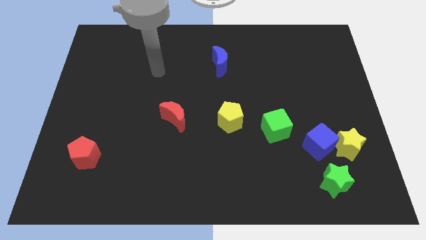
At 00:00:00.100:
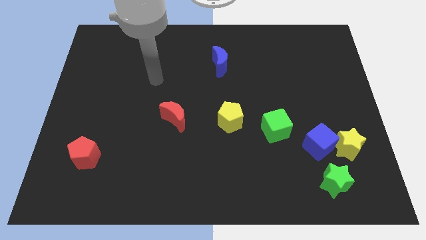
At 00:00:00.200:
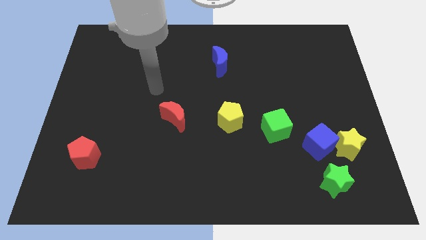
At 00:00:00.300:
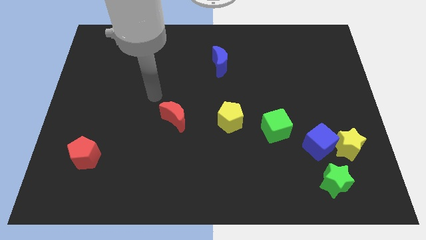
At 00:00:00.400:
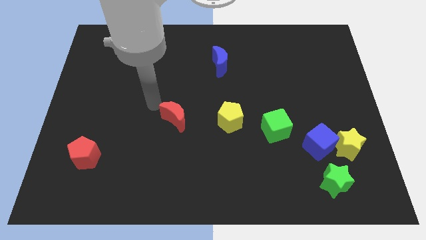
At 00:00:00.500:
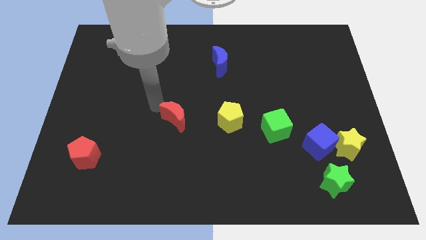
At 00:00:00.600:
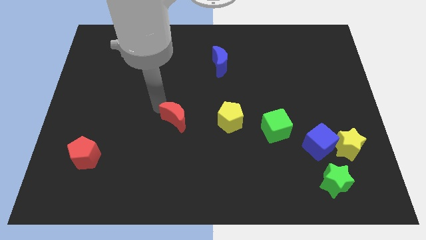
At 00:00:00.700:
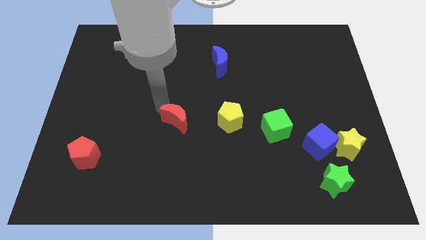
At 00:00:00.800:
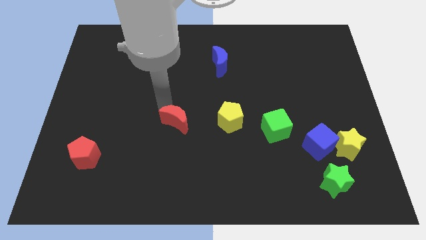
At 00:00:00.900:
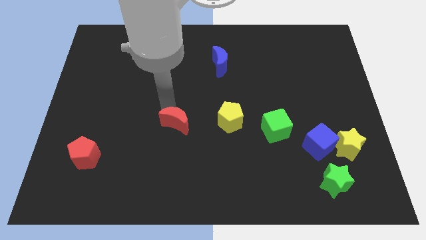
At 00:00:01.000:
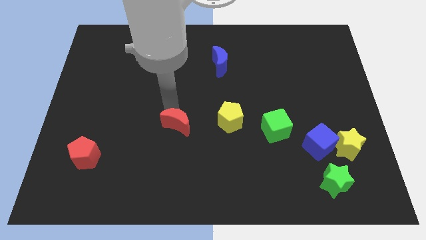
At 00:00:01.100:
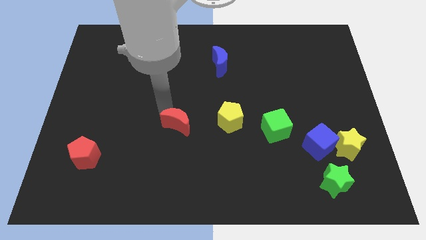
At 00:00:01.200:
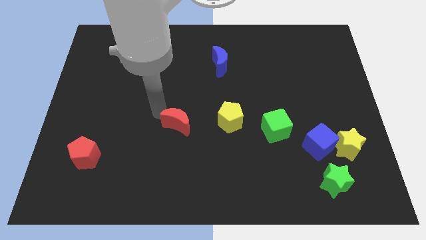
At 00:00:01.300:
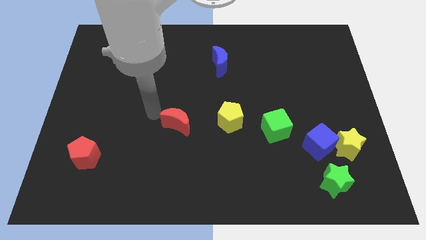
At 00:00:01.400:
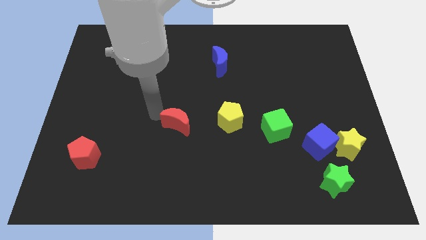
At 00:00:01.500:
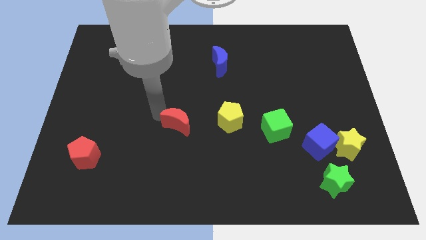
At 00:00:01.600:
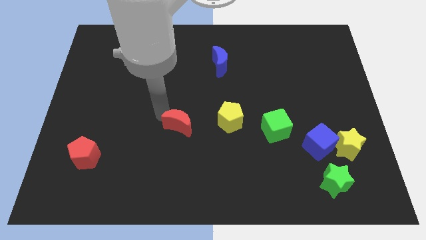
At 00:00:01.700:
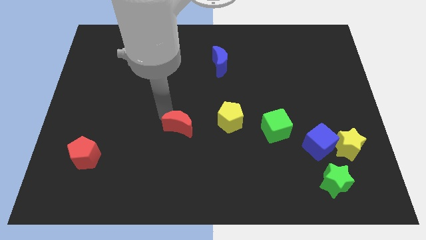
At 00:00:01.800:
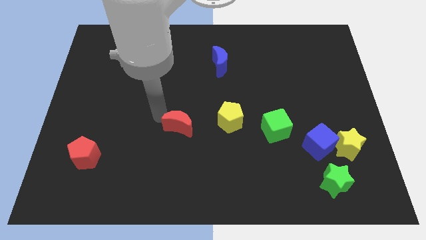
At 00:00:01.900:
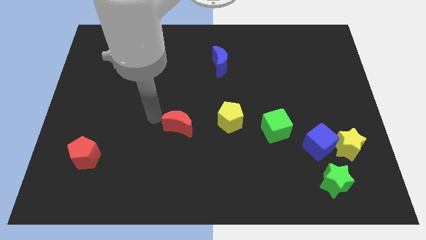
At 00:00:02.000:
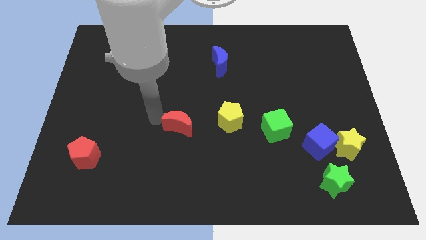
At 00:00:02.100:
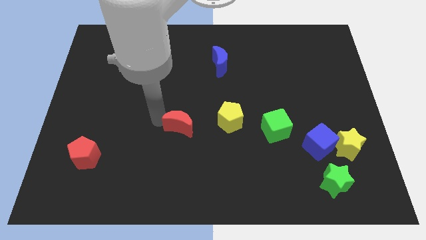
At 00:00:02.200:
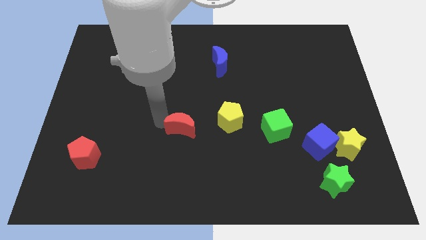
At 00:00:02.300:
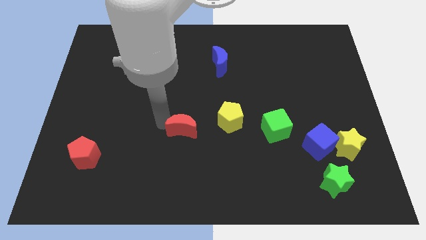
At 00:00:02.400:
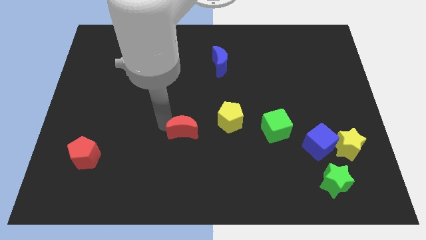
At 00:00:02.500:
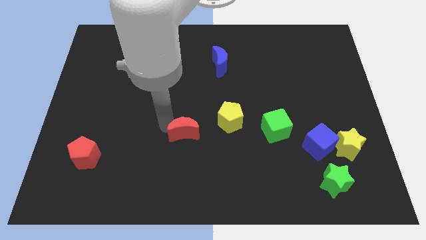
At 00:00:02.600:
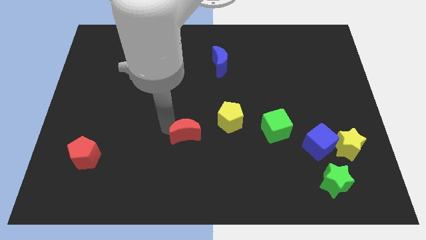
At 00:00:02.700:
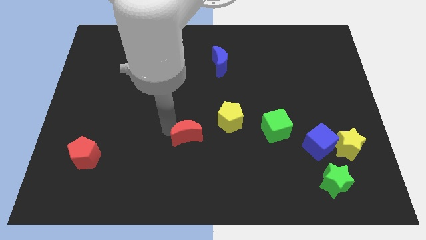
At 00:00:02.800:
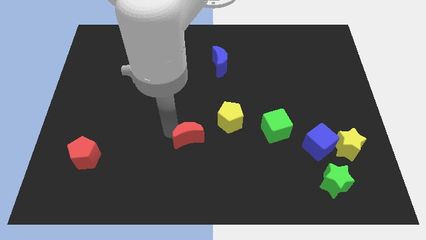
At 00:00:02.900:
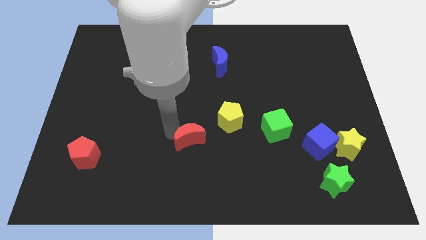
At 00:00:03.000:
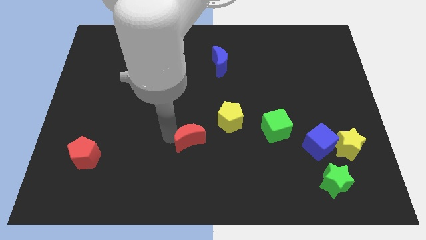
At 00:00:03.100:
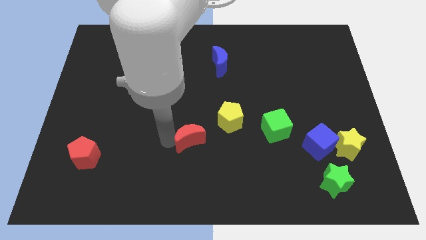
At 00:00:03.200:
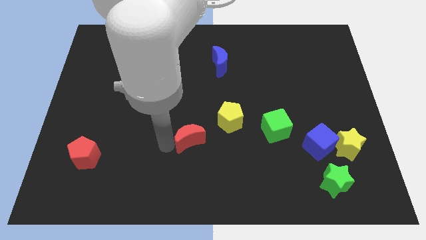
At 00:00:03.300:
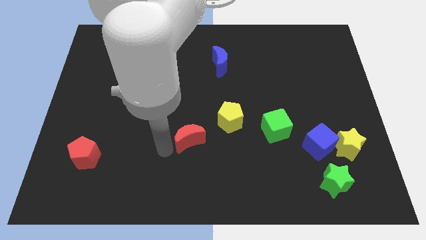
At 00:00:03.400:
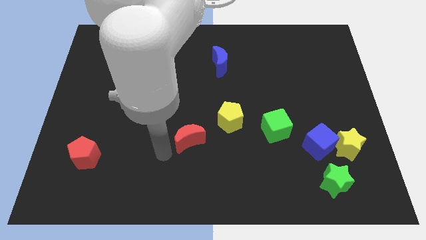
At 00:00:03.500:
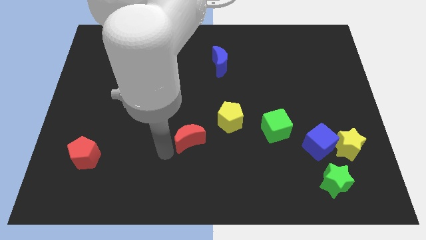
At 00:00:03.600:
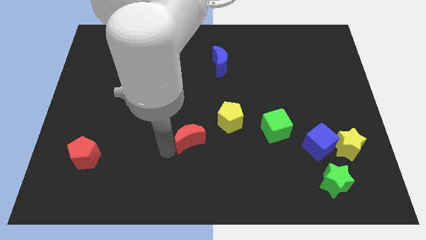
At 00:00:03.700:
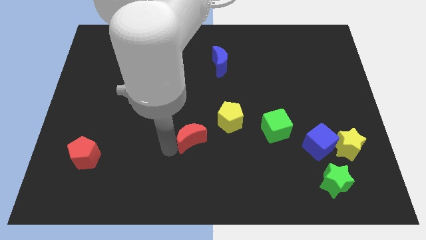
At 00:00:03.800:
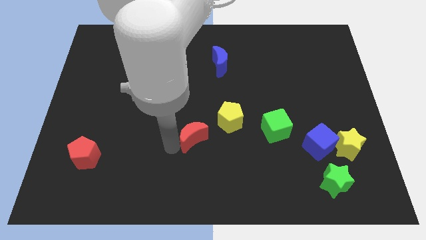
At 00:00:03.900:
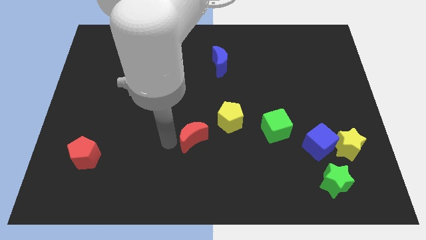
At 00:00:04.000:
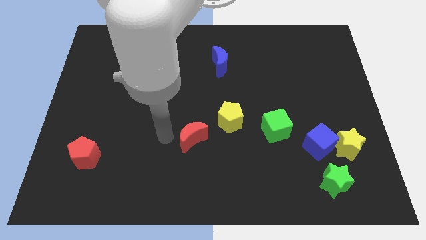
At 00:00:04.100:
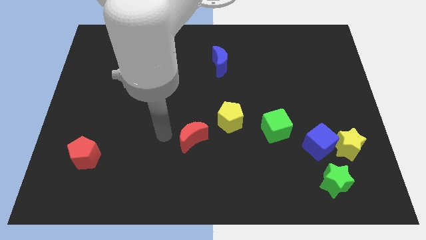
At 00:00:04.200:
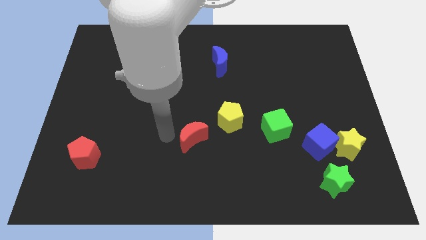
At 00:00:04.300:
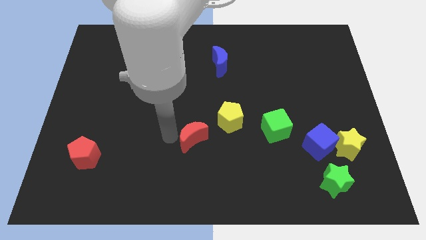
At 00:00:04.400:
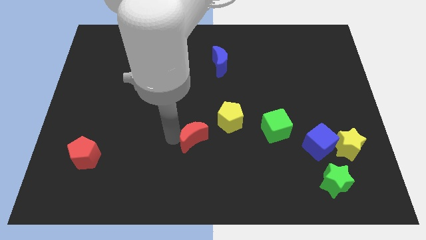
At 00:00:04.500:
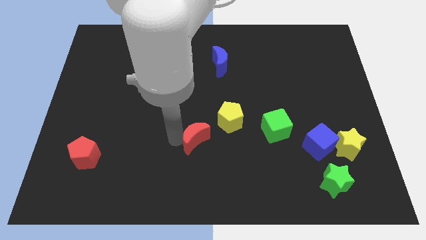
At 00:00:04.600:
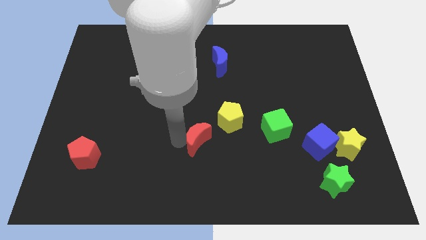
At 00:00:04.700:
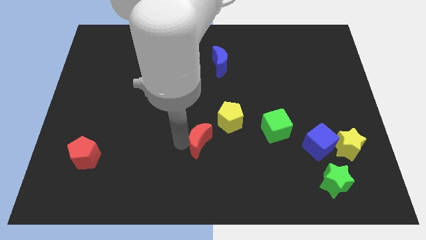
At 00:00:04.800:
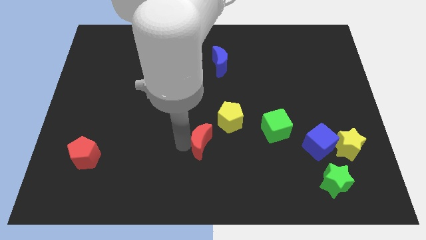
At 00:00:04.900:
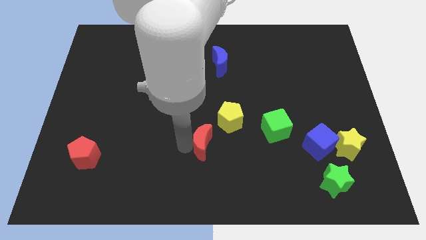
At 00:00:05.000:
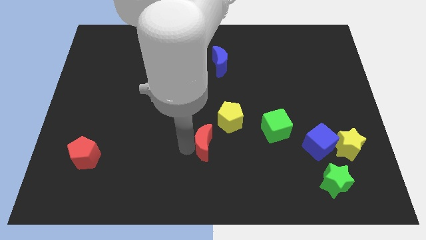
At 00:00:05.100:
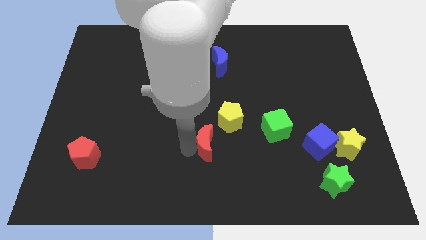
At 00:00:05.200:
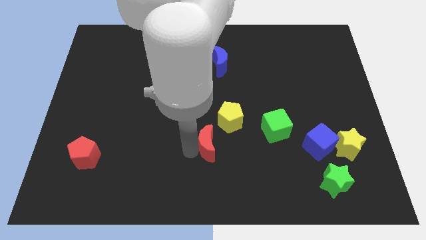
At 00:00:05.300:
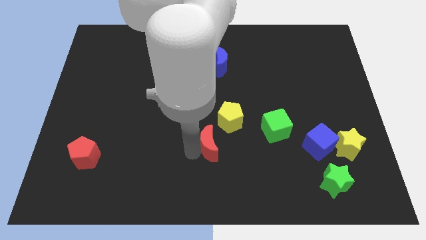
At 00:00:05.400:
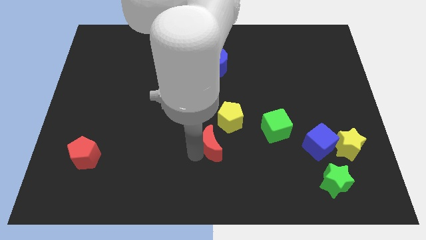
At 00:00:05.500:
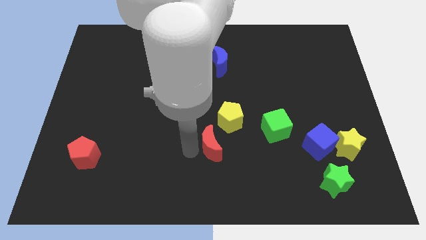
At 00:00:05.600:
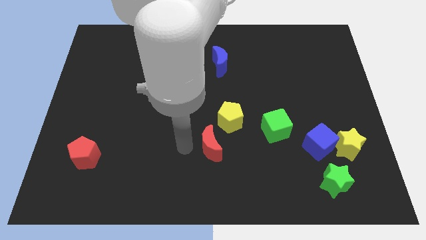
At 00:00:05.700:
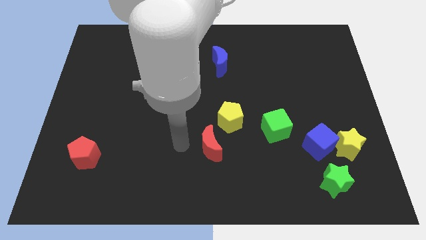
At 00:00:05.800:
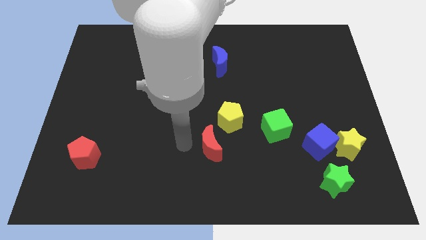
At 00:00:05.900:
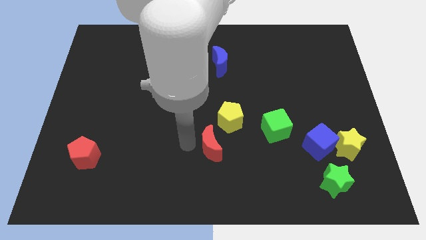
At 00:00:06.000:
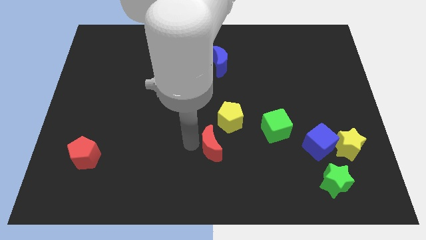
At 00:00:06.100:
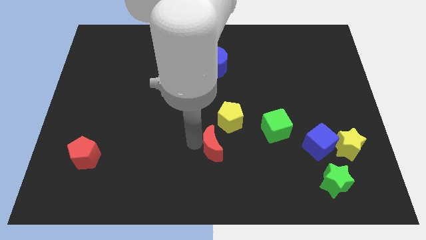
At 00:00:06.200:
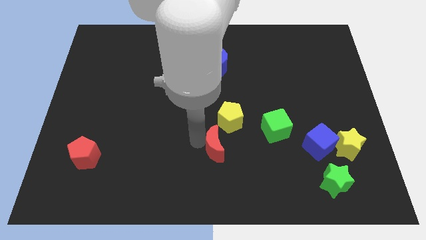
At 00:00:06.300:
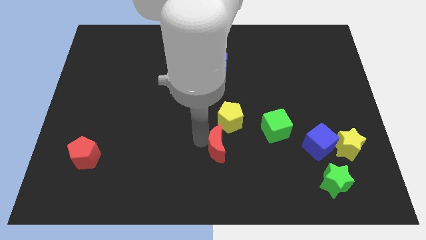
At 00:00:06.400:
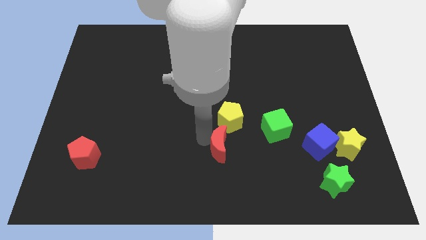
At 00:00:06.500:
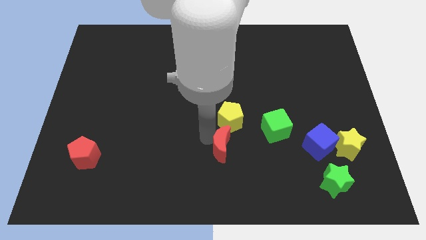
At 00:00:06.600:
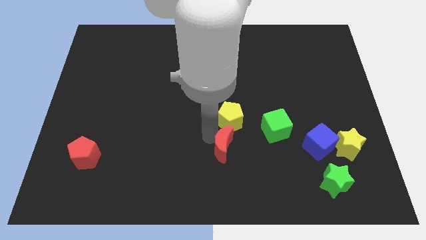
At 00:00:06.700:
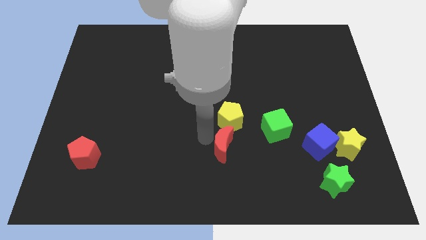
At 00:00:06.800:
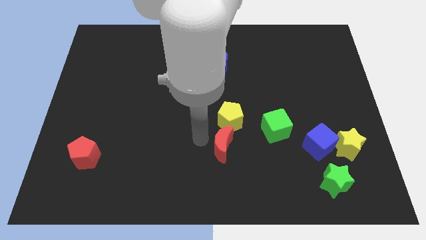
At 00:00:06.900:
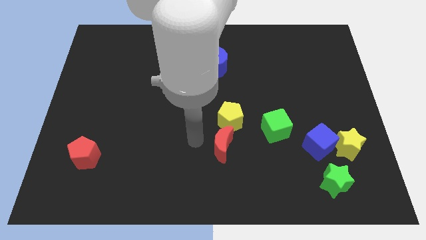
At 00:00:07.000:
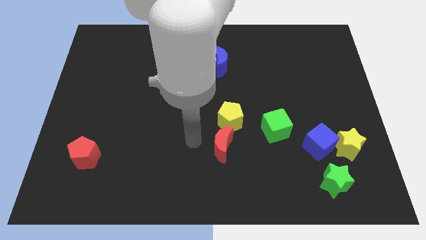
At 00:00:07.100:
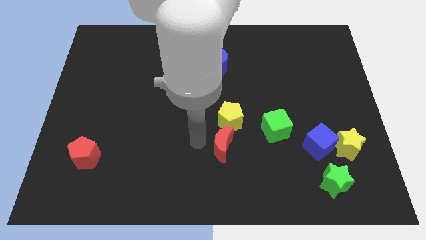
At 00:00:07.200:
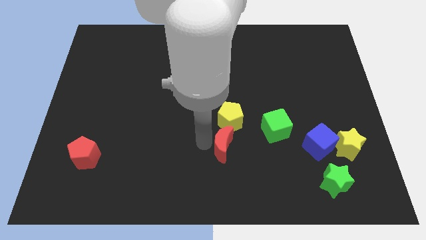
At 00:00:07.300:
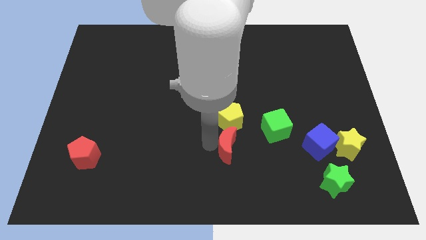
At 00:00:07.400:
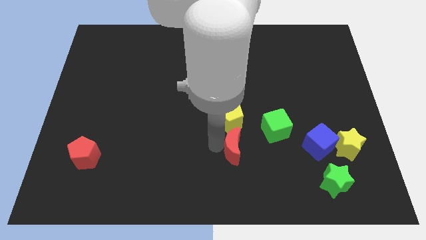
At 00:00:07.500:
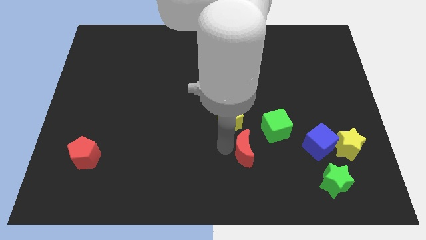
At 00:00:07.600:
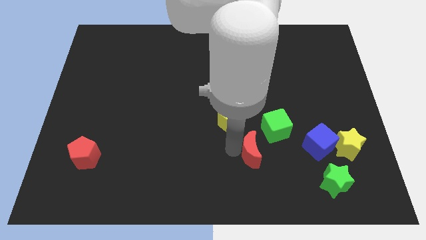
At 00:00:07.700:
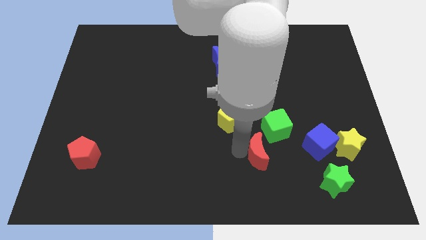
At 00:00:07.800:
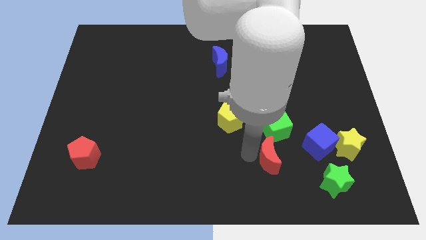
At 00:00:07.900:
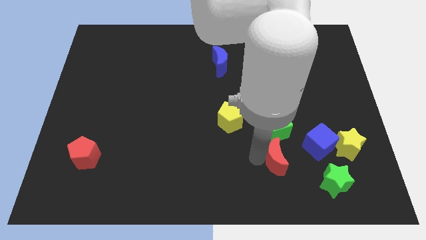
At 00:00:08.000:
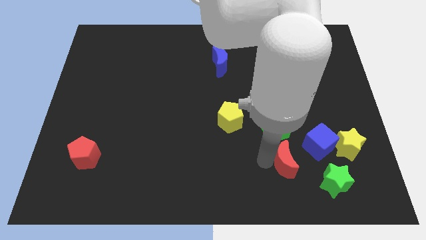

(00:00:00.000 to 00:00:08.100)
move the red moon to the left side of the yellow star

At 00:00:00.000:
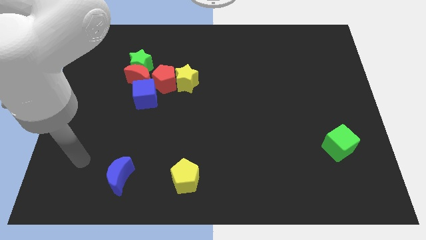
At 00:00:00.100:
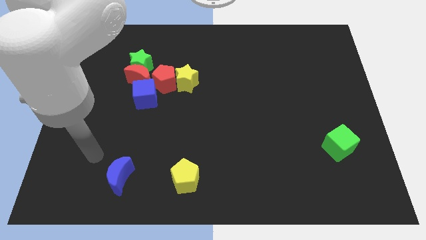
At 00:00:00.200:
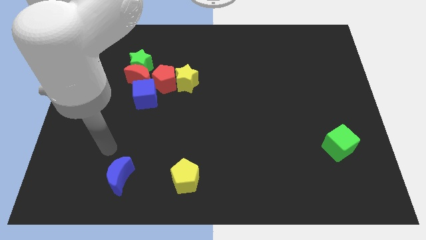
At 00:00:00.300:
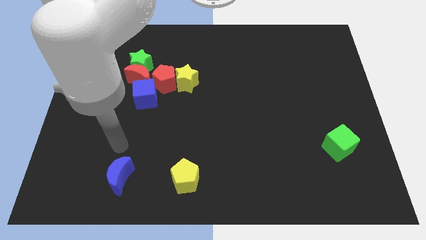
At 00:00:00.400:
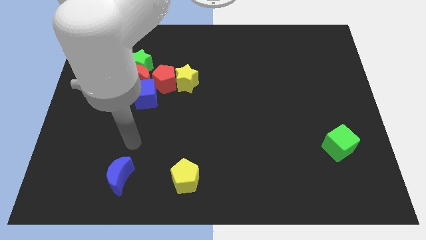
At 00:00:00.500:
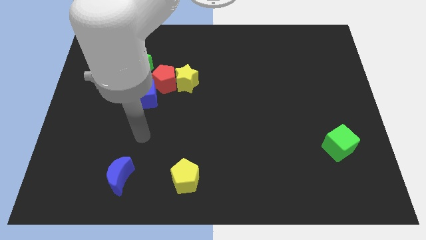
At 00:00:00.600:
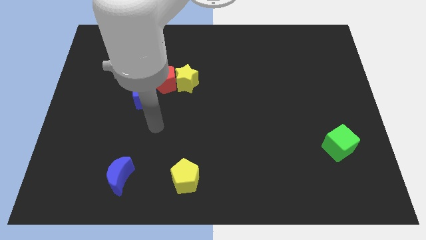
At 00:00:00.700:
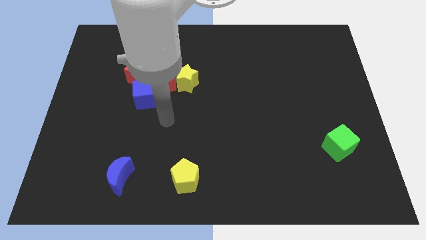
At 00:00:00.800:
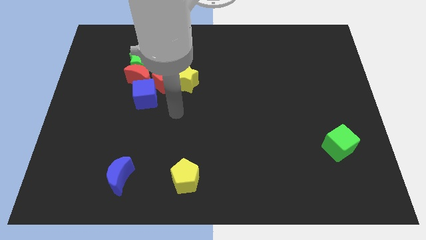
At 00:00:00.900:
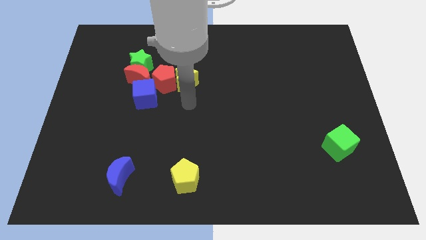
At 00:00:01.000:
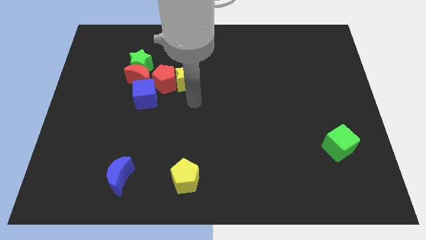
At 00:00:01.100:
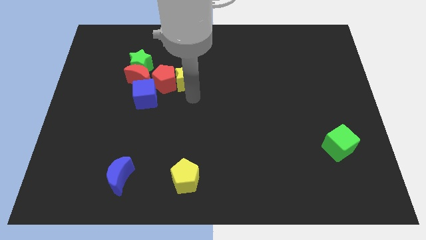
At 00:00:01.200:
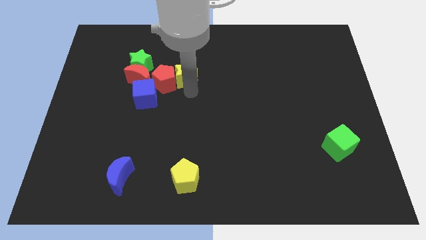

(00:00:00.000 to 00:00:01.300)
move the yellow star just right of the green star
